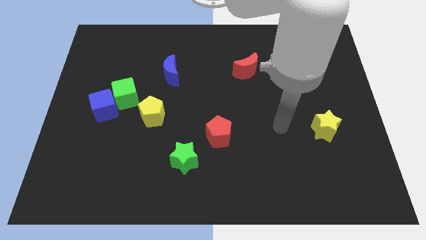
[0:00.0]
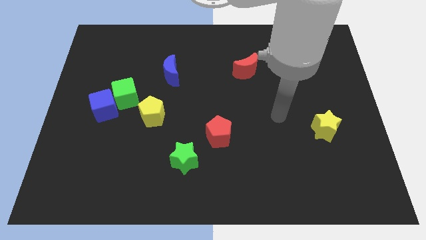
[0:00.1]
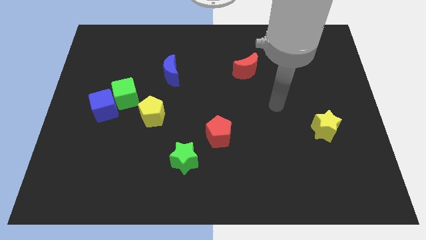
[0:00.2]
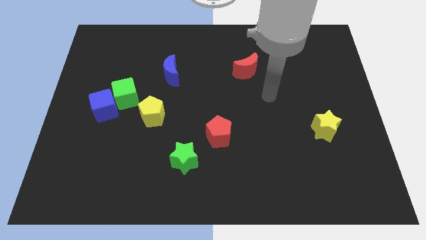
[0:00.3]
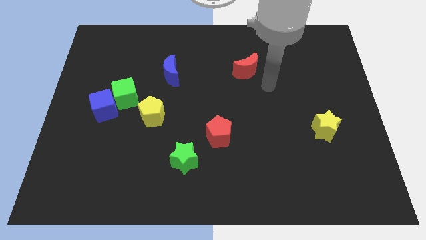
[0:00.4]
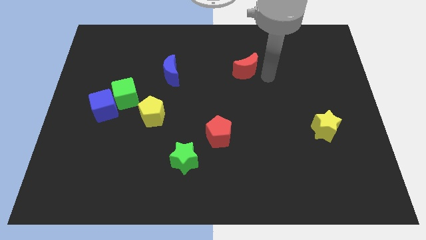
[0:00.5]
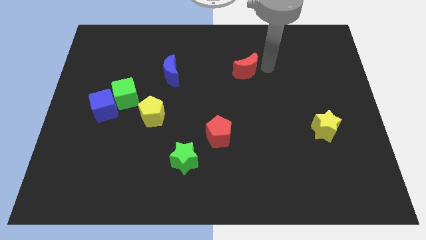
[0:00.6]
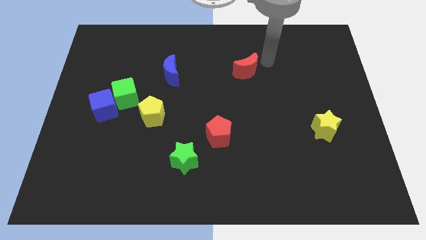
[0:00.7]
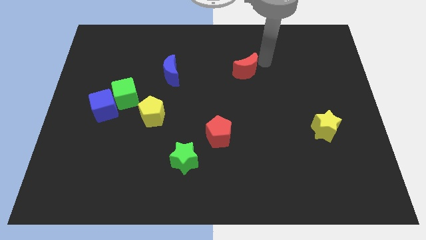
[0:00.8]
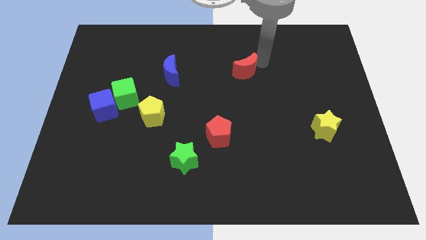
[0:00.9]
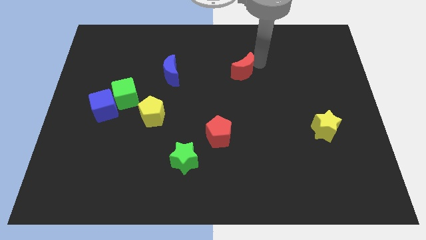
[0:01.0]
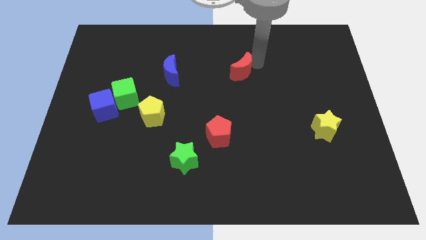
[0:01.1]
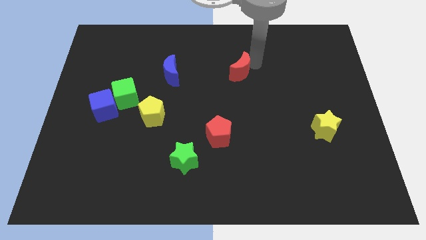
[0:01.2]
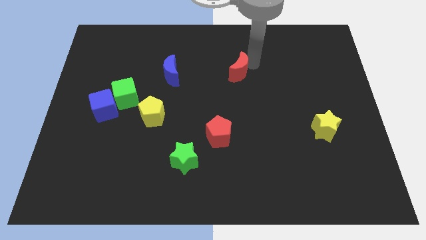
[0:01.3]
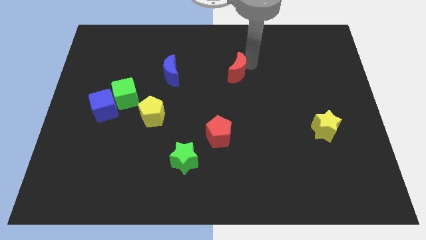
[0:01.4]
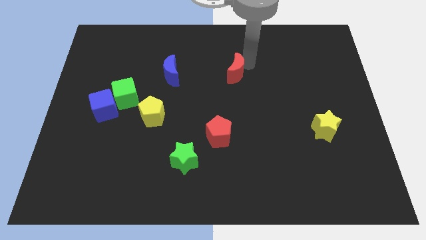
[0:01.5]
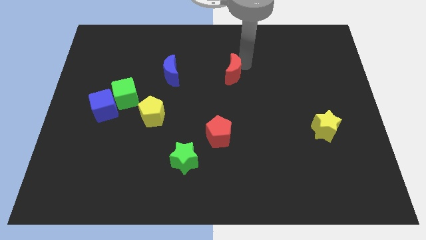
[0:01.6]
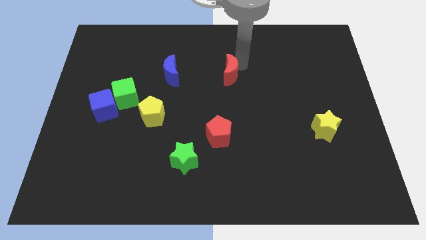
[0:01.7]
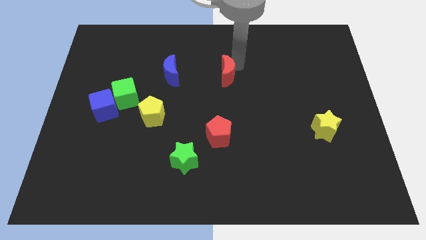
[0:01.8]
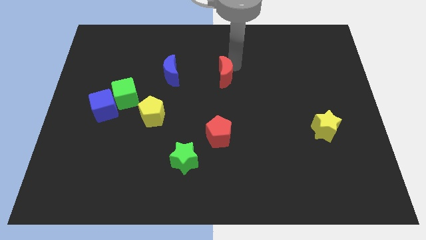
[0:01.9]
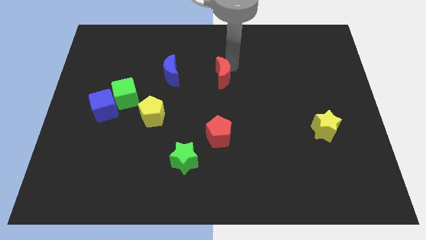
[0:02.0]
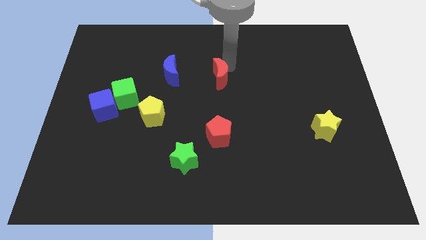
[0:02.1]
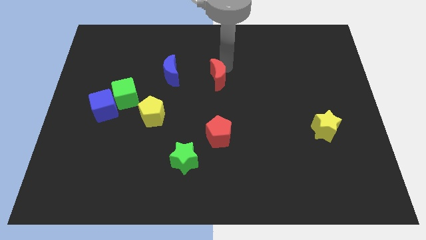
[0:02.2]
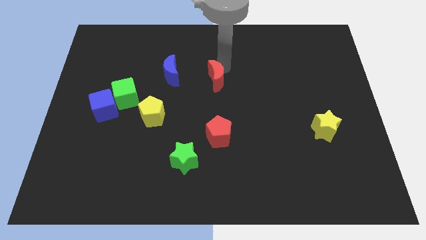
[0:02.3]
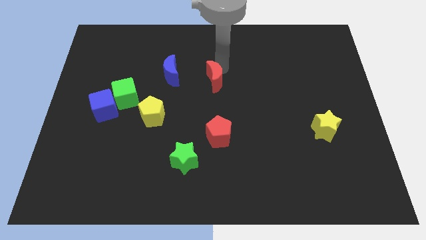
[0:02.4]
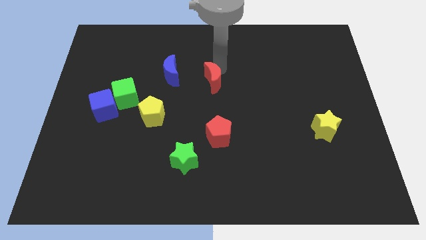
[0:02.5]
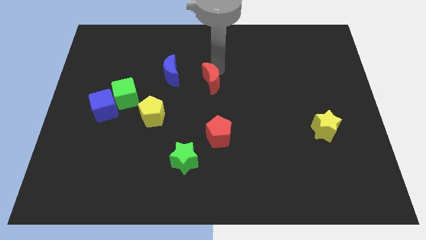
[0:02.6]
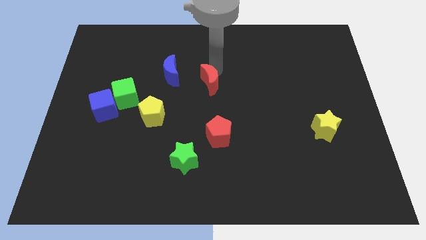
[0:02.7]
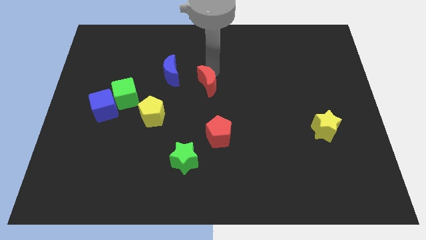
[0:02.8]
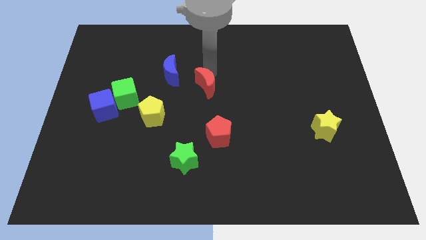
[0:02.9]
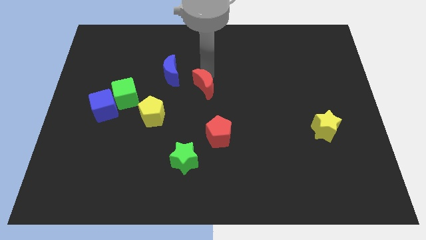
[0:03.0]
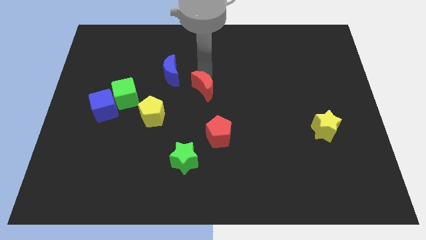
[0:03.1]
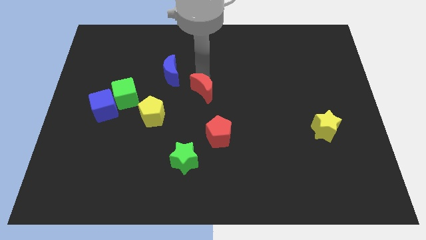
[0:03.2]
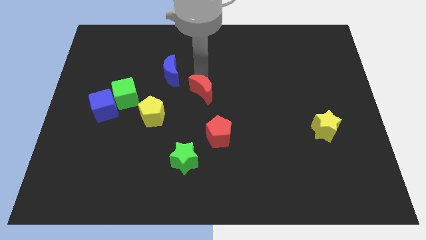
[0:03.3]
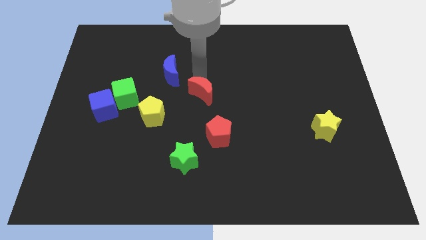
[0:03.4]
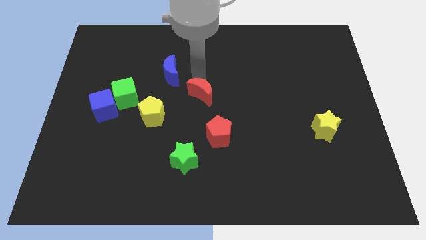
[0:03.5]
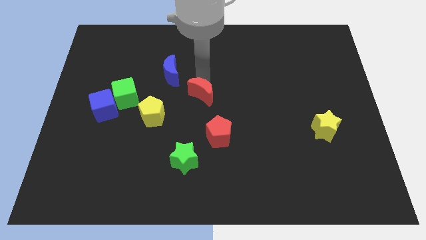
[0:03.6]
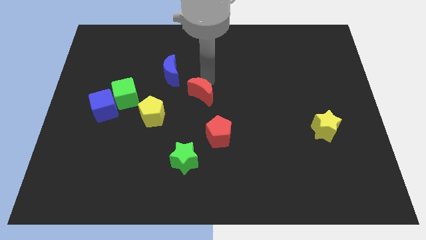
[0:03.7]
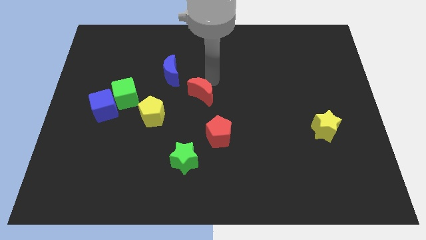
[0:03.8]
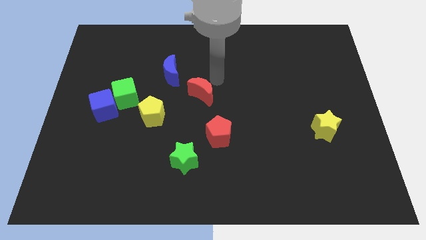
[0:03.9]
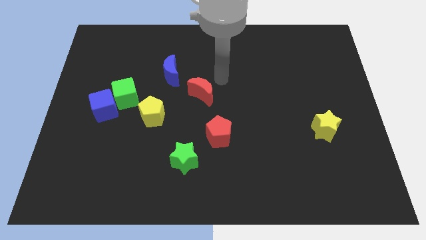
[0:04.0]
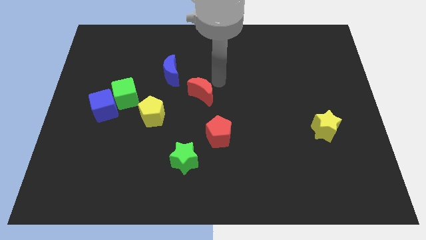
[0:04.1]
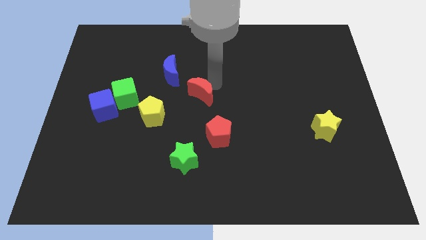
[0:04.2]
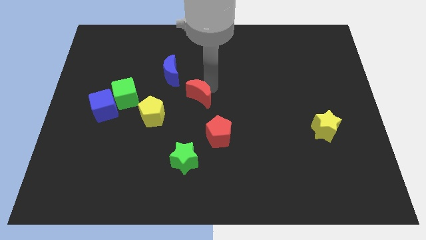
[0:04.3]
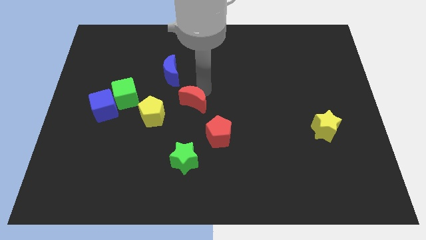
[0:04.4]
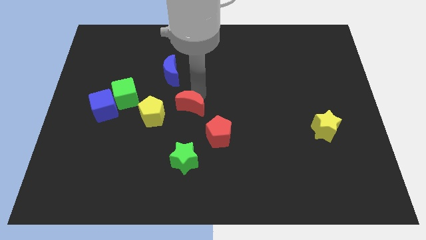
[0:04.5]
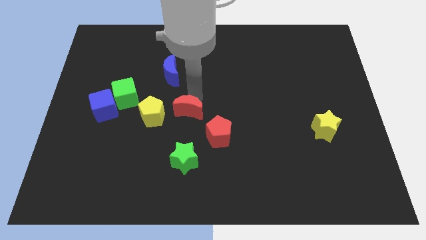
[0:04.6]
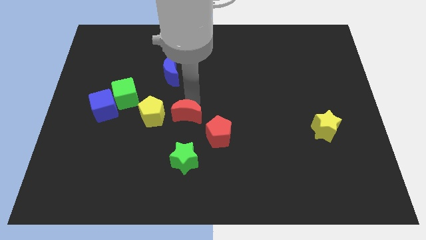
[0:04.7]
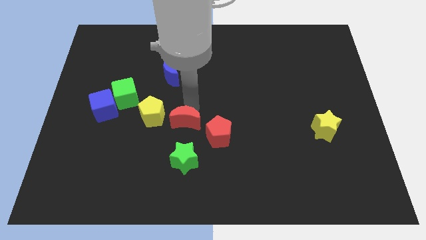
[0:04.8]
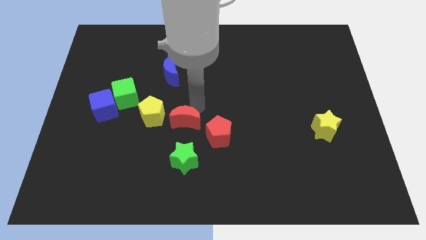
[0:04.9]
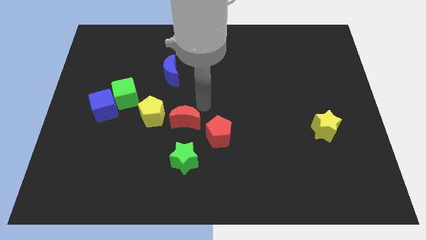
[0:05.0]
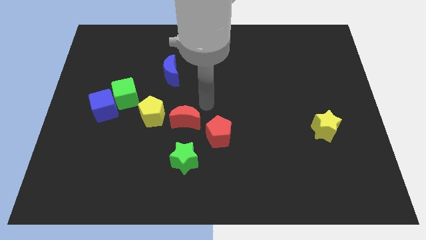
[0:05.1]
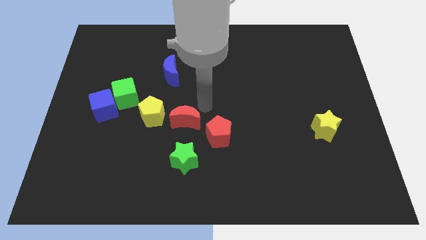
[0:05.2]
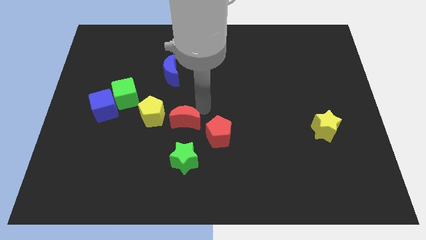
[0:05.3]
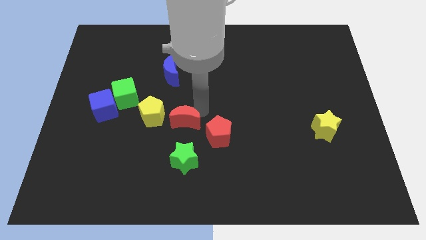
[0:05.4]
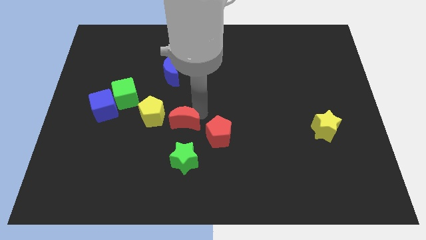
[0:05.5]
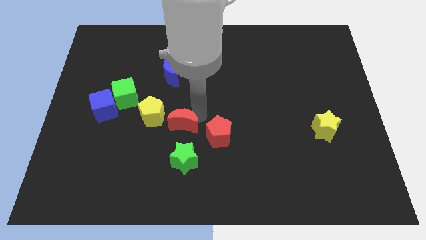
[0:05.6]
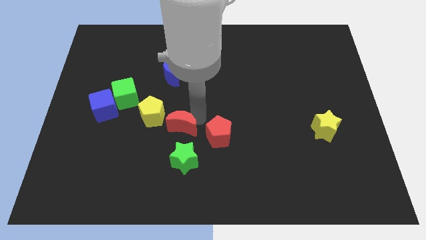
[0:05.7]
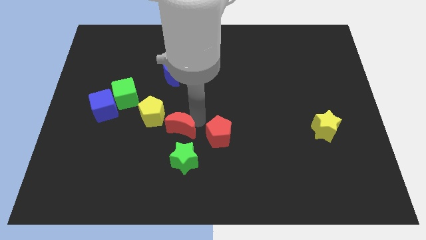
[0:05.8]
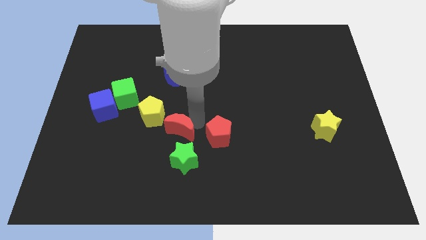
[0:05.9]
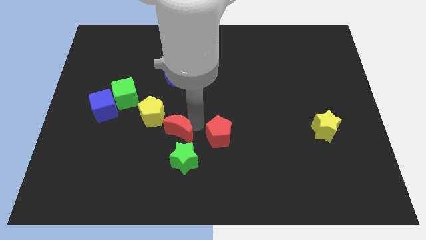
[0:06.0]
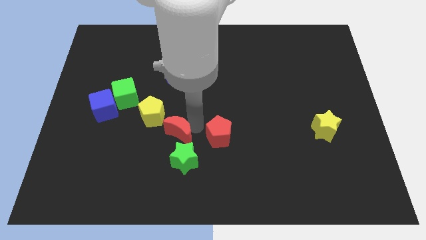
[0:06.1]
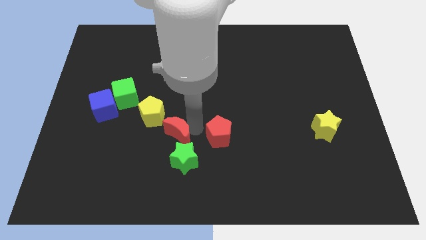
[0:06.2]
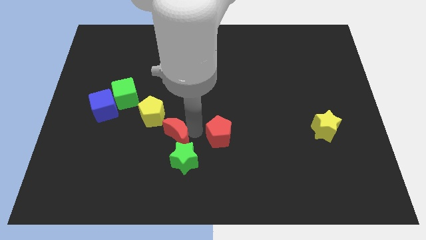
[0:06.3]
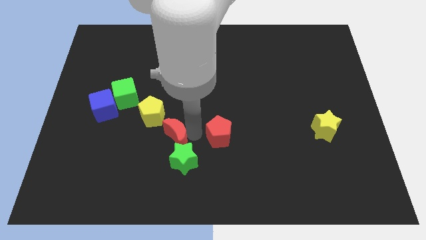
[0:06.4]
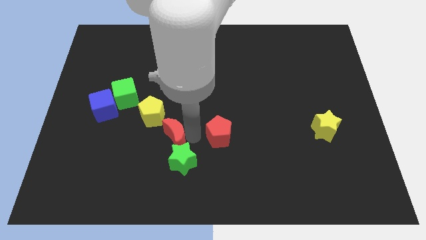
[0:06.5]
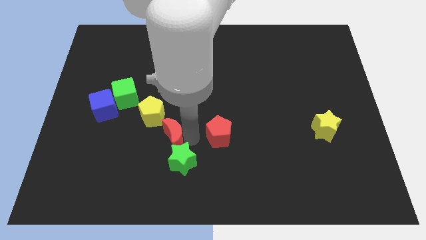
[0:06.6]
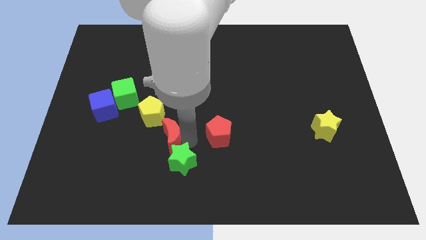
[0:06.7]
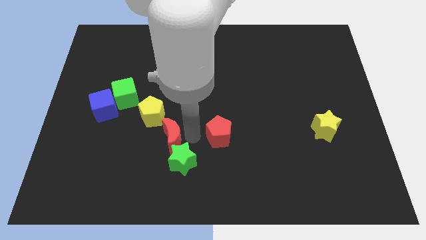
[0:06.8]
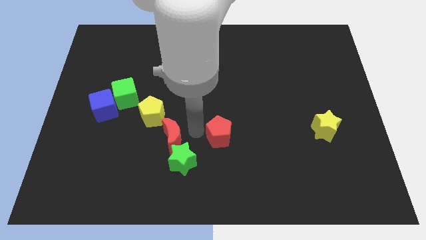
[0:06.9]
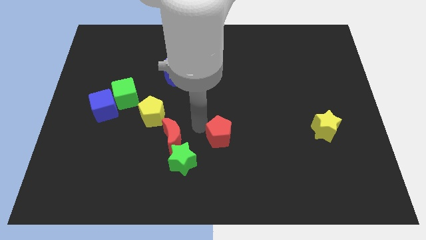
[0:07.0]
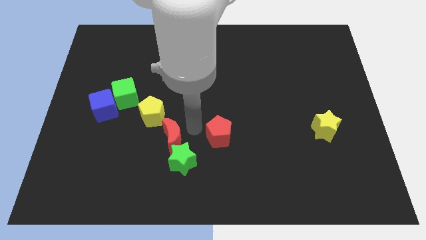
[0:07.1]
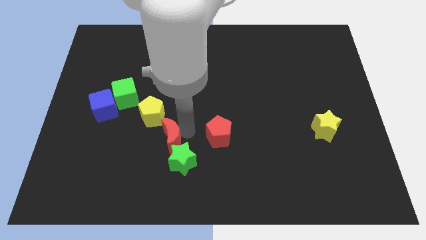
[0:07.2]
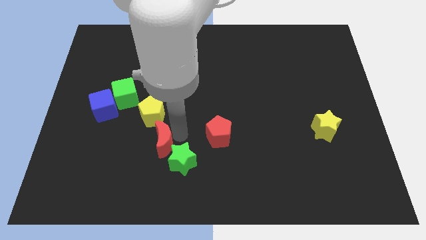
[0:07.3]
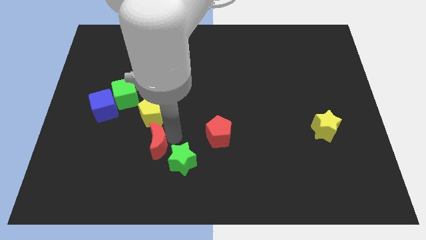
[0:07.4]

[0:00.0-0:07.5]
slide the red moon left of the green star
